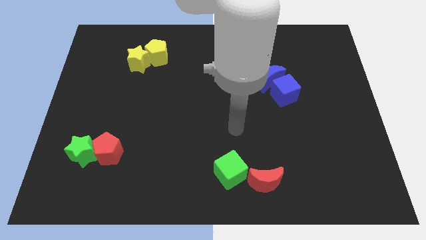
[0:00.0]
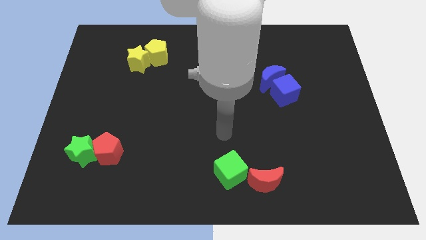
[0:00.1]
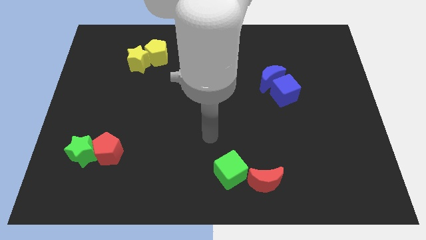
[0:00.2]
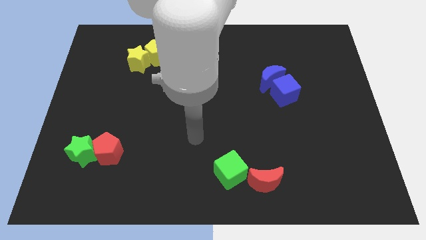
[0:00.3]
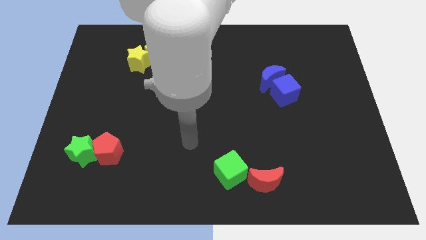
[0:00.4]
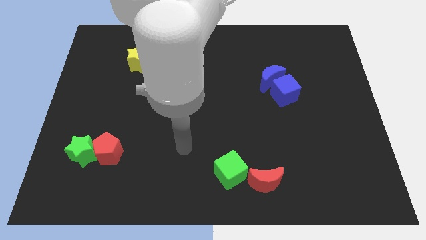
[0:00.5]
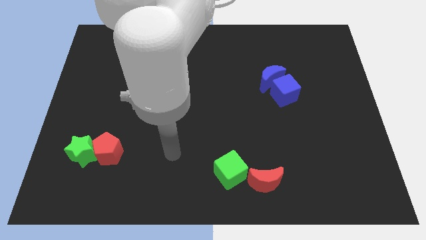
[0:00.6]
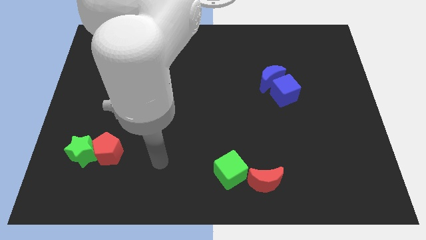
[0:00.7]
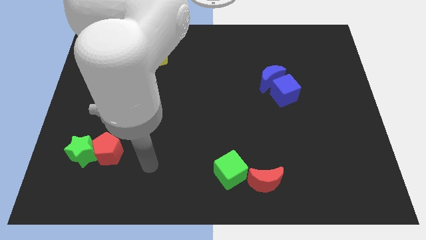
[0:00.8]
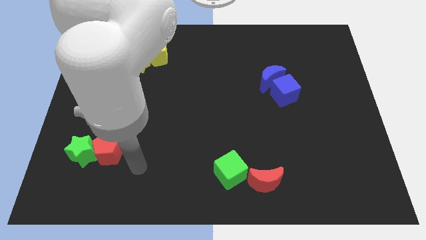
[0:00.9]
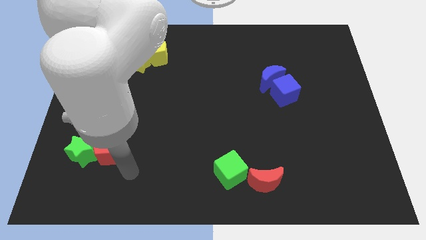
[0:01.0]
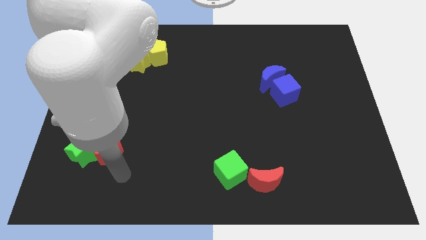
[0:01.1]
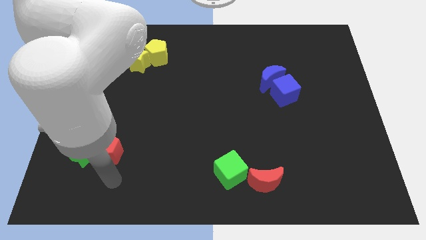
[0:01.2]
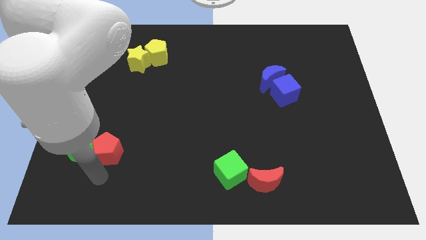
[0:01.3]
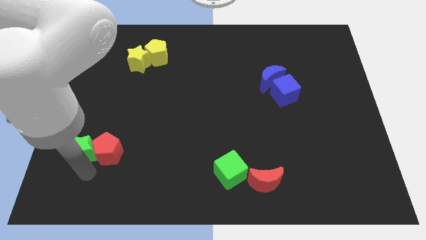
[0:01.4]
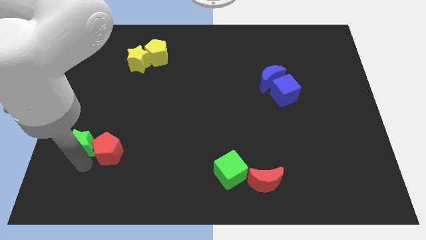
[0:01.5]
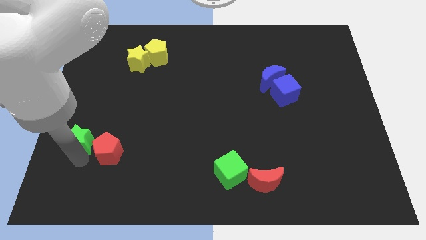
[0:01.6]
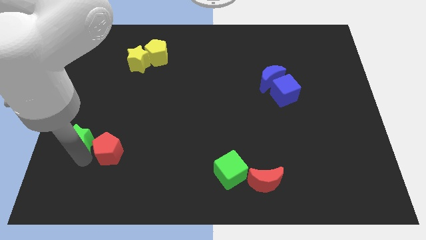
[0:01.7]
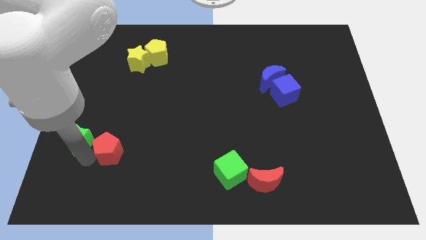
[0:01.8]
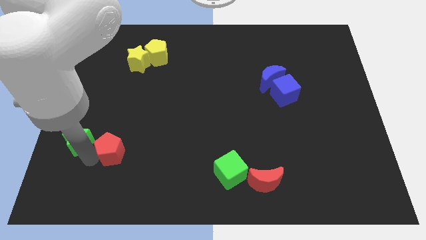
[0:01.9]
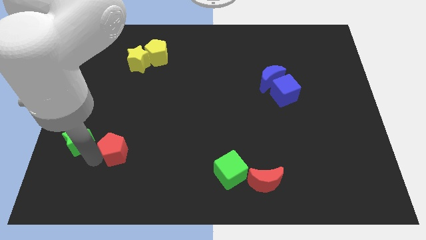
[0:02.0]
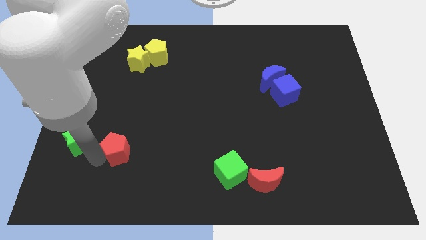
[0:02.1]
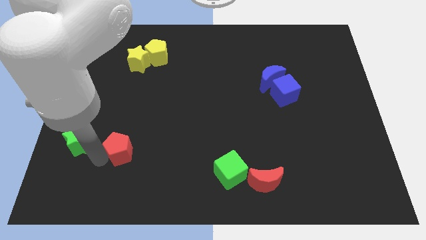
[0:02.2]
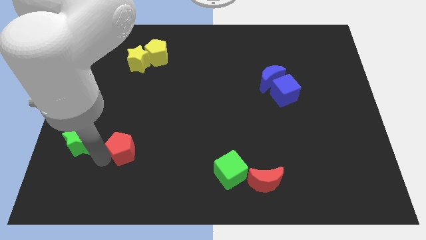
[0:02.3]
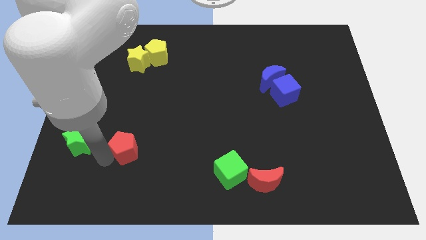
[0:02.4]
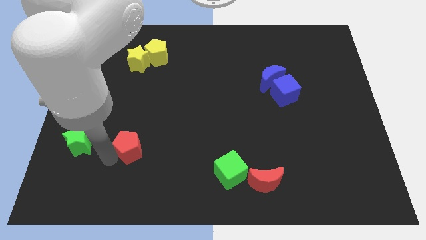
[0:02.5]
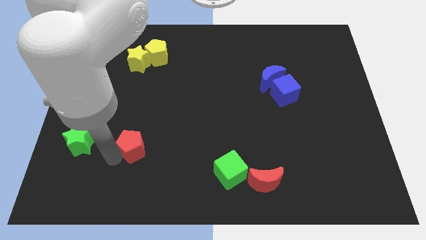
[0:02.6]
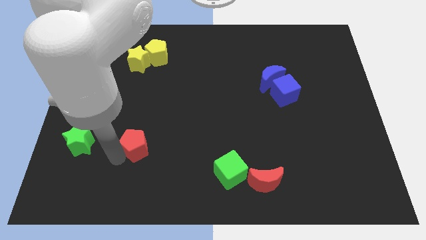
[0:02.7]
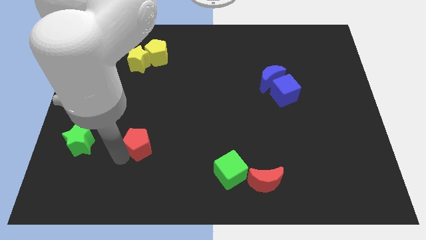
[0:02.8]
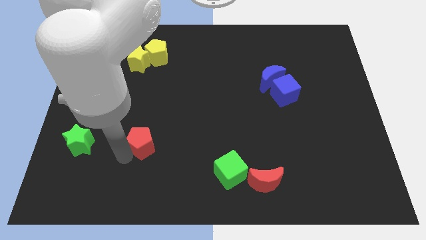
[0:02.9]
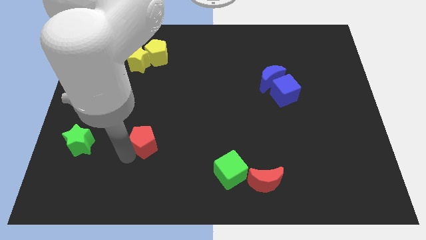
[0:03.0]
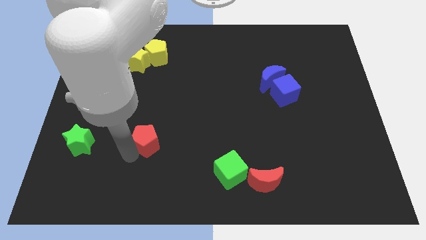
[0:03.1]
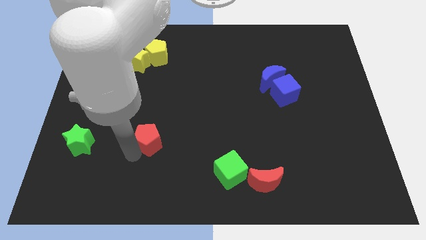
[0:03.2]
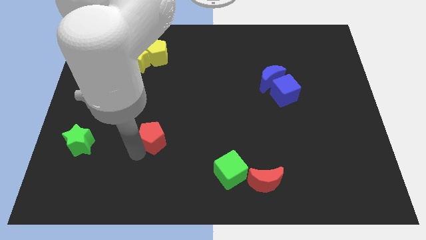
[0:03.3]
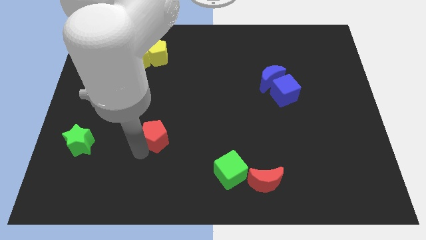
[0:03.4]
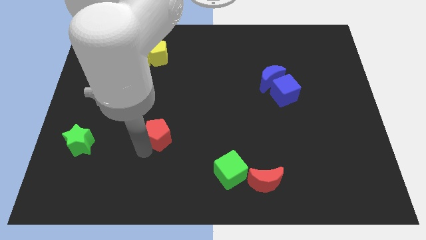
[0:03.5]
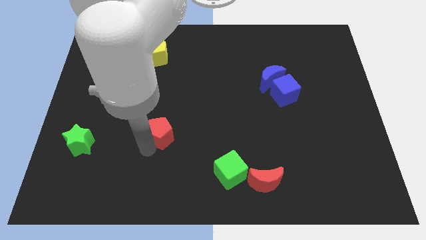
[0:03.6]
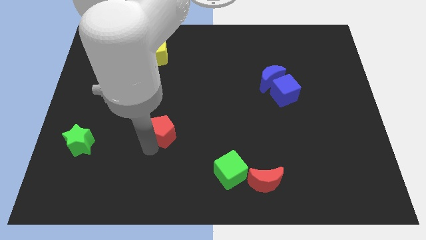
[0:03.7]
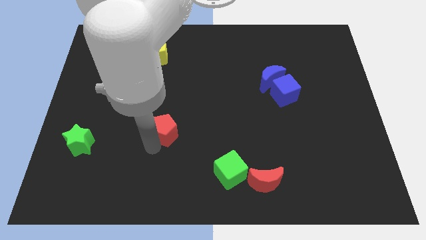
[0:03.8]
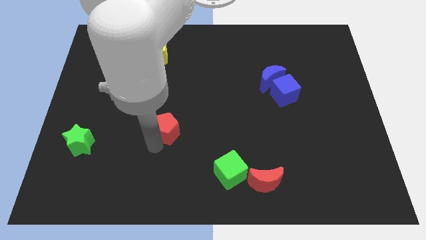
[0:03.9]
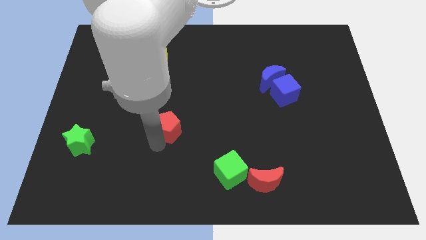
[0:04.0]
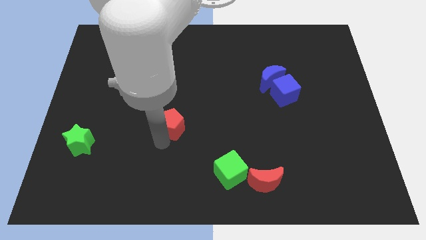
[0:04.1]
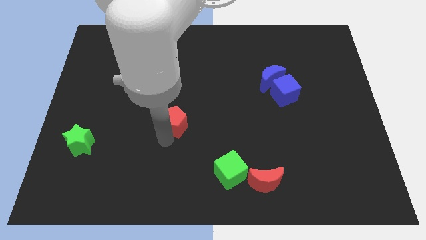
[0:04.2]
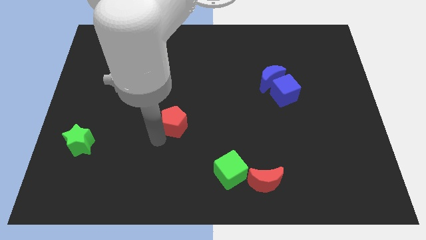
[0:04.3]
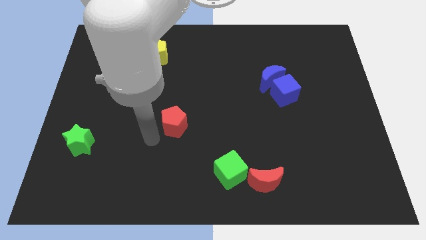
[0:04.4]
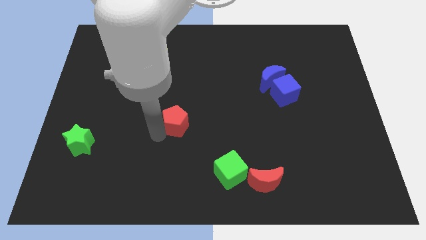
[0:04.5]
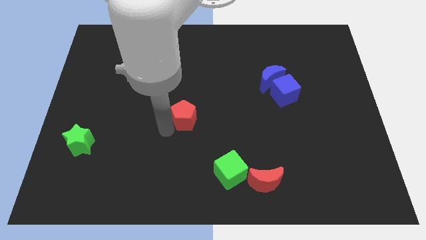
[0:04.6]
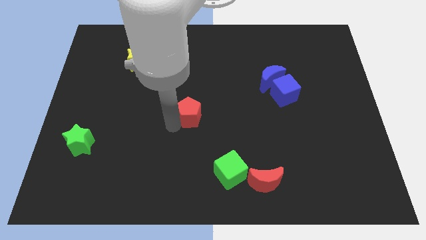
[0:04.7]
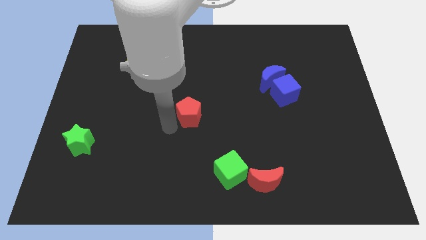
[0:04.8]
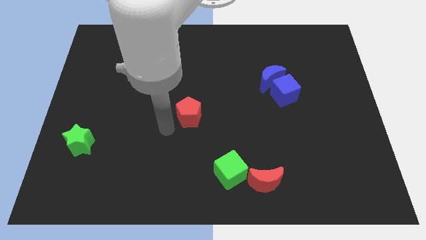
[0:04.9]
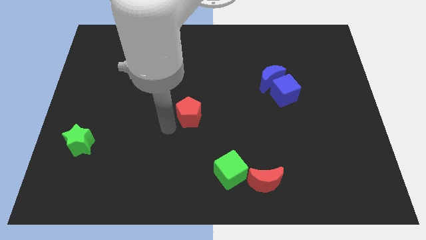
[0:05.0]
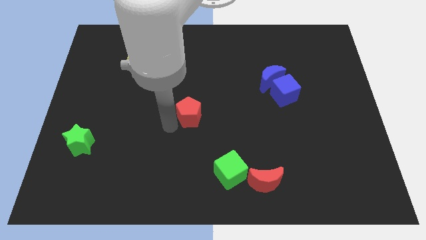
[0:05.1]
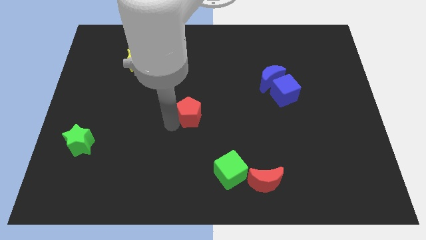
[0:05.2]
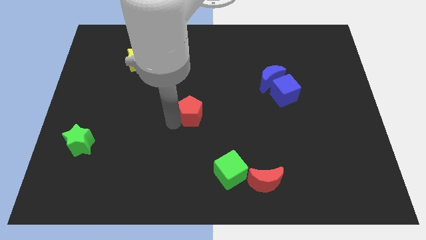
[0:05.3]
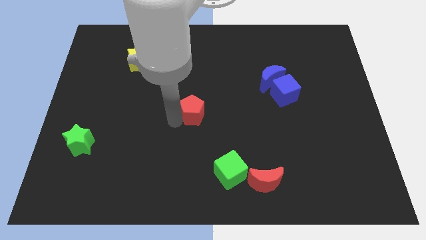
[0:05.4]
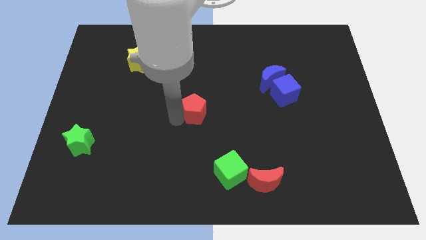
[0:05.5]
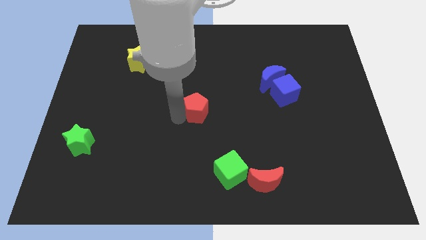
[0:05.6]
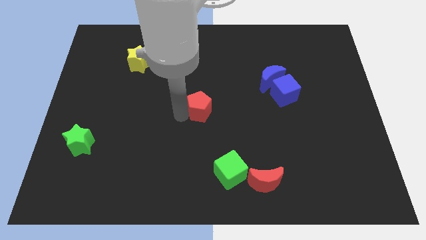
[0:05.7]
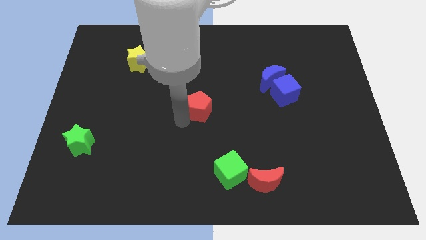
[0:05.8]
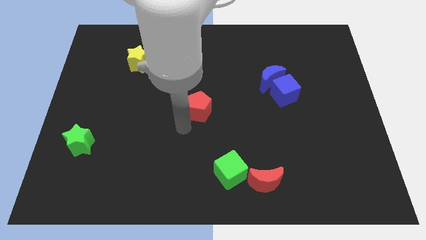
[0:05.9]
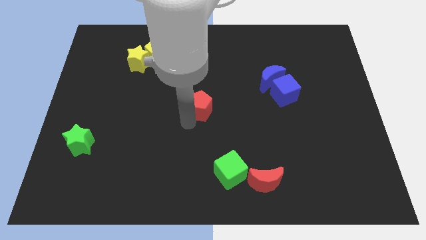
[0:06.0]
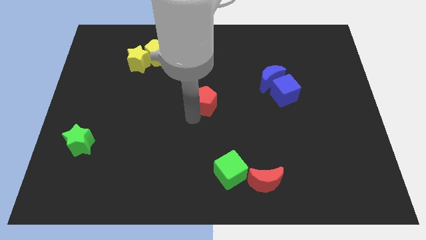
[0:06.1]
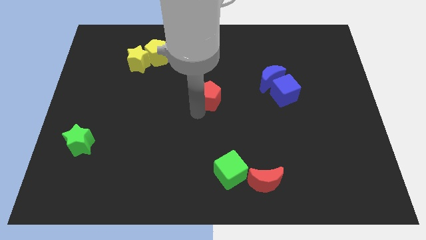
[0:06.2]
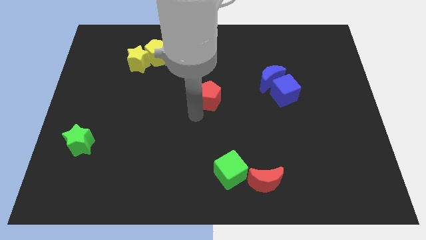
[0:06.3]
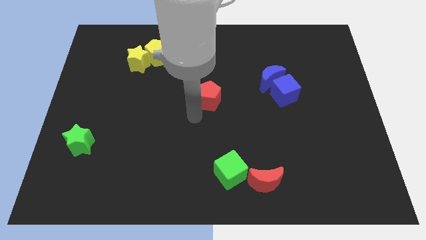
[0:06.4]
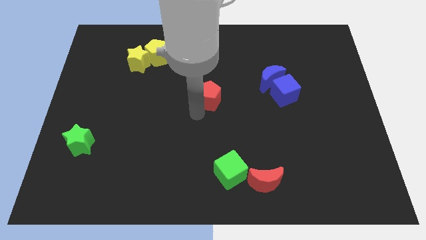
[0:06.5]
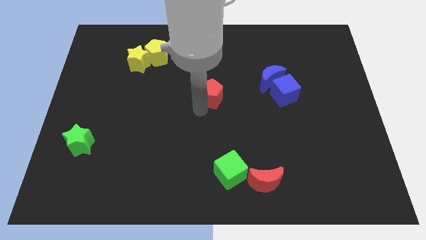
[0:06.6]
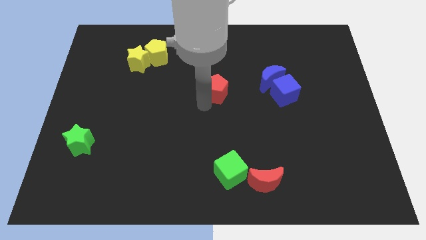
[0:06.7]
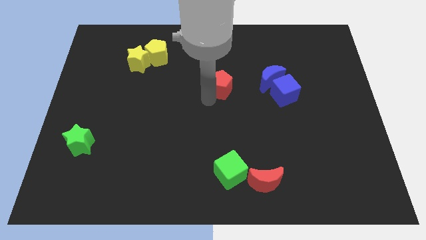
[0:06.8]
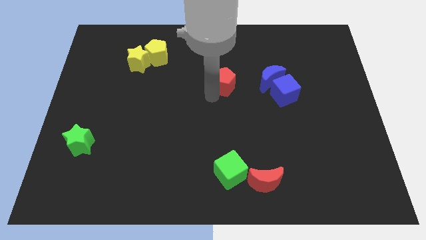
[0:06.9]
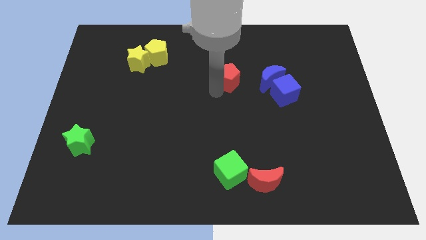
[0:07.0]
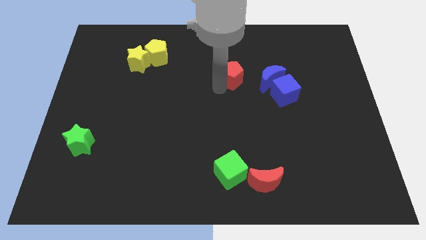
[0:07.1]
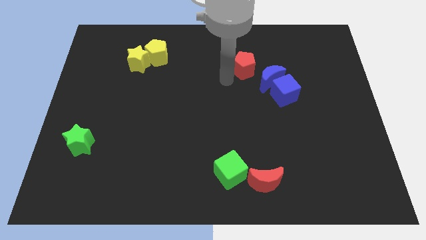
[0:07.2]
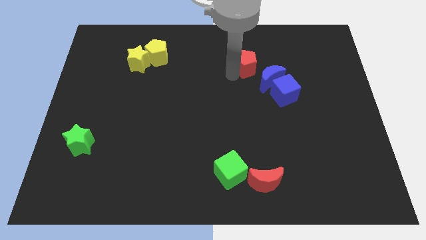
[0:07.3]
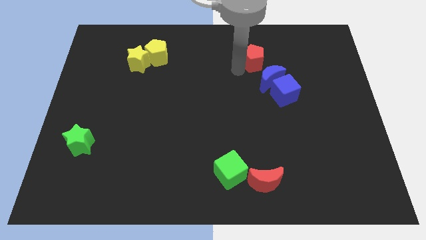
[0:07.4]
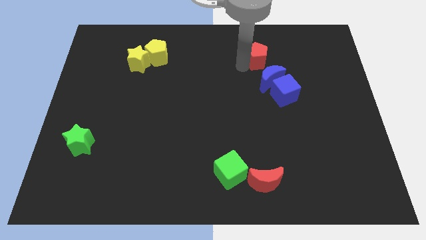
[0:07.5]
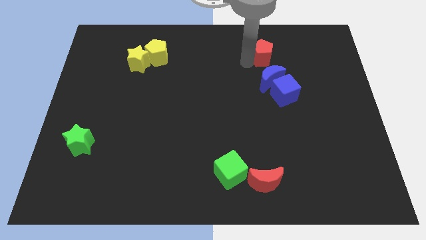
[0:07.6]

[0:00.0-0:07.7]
put the red pentagon to the top of the blue cube
